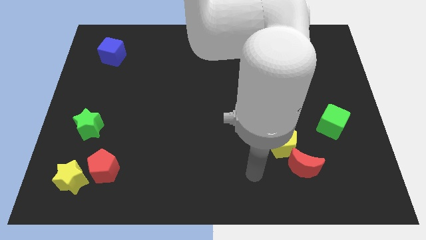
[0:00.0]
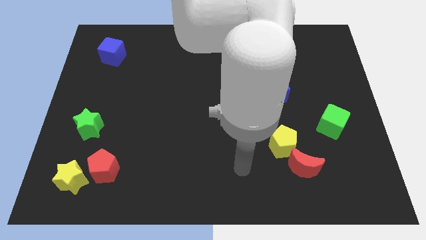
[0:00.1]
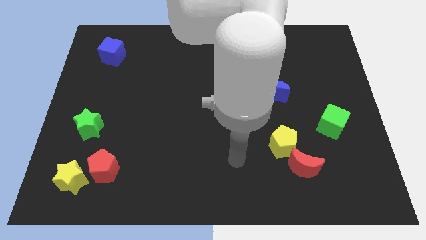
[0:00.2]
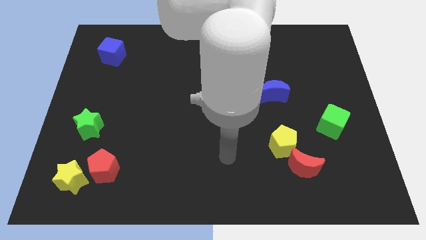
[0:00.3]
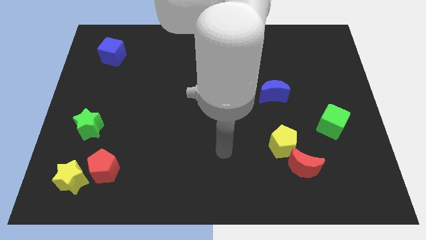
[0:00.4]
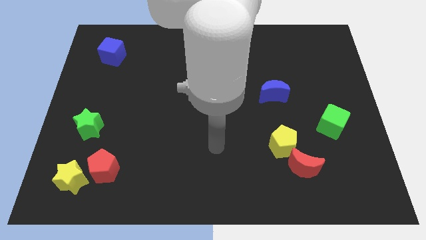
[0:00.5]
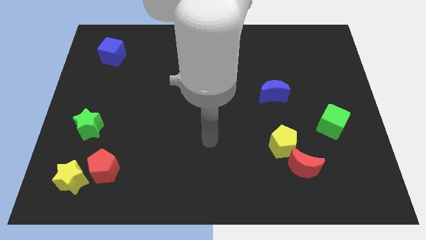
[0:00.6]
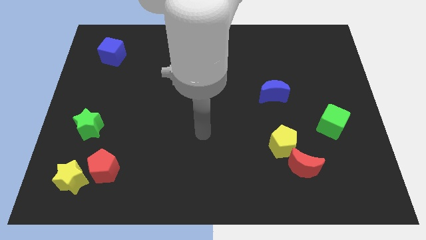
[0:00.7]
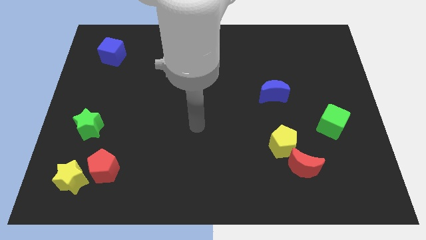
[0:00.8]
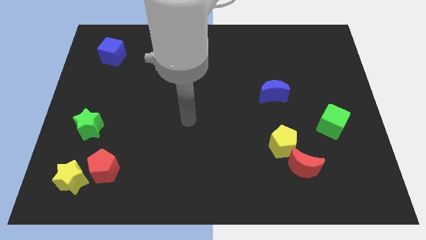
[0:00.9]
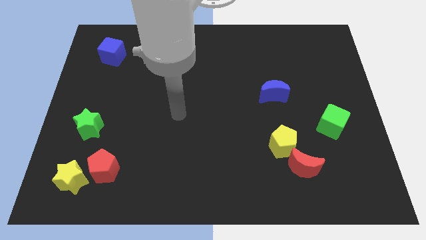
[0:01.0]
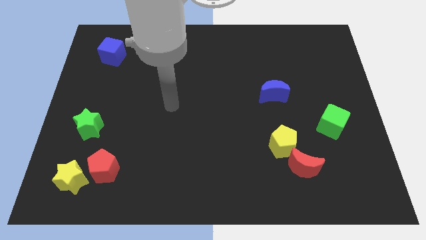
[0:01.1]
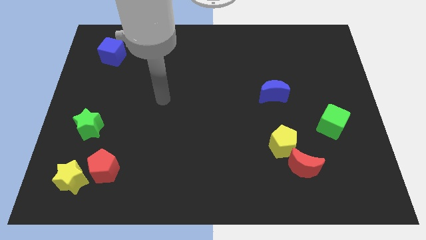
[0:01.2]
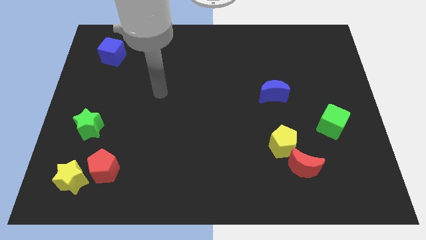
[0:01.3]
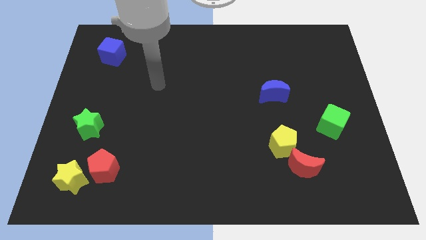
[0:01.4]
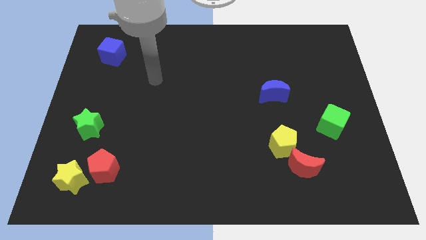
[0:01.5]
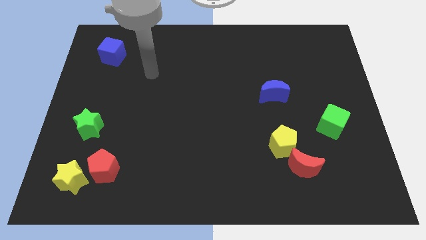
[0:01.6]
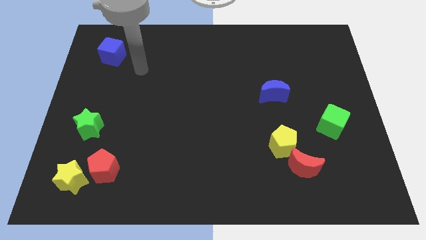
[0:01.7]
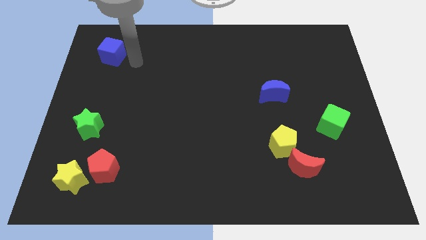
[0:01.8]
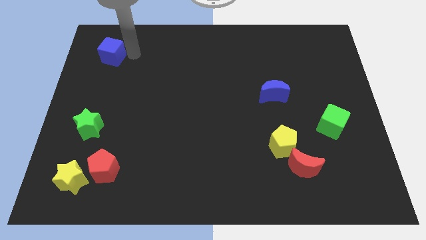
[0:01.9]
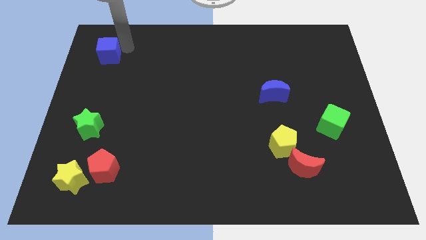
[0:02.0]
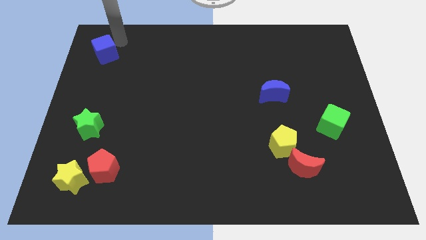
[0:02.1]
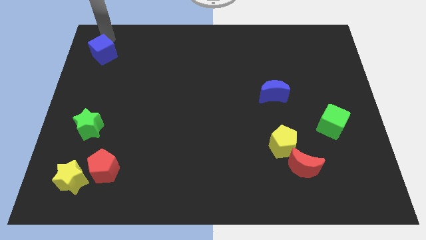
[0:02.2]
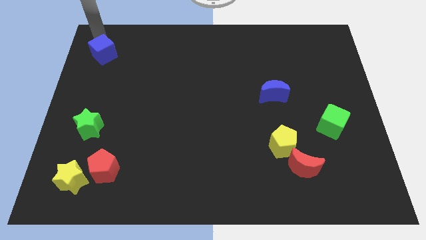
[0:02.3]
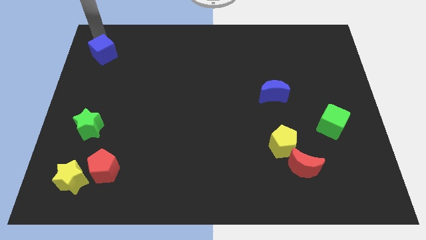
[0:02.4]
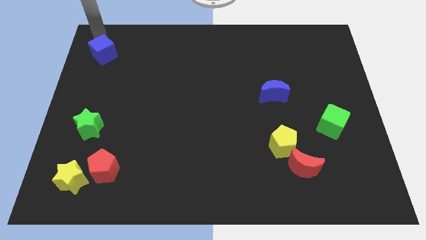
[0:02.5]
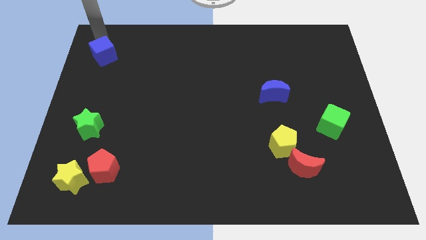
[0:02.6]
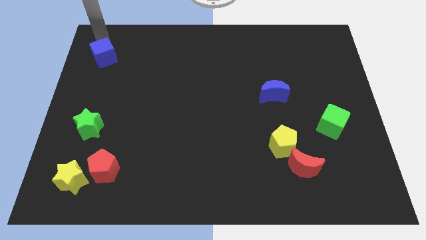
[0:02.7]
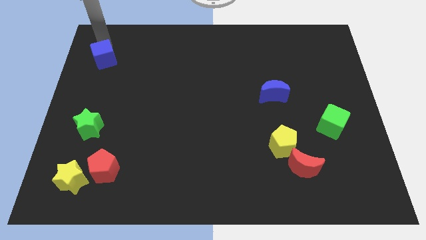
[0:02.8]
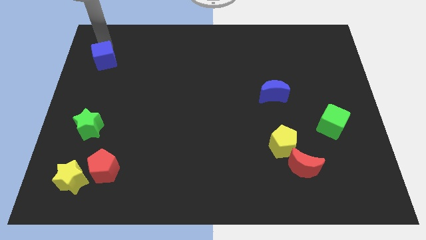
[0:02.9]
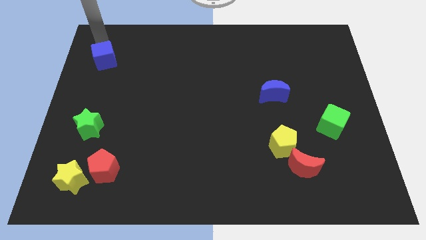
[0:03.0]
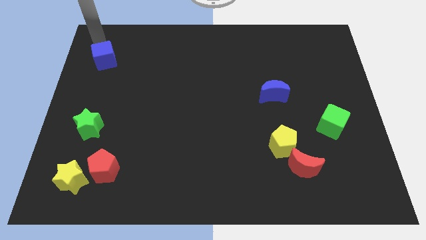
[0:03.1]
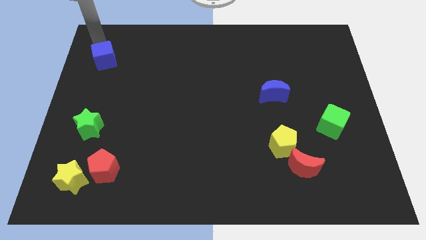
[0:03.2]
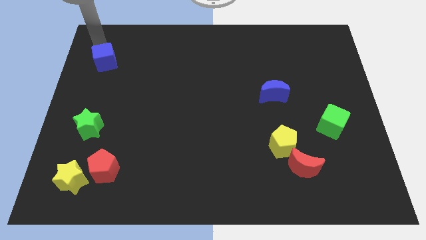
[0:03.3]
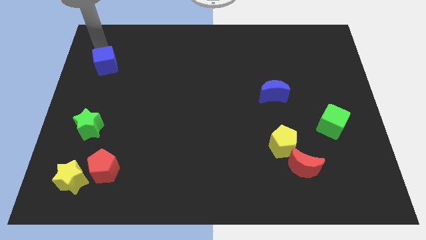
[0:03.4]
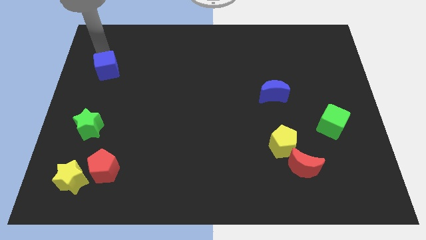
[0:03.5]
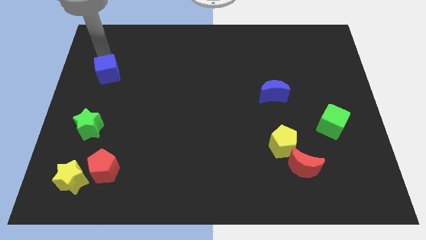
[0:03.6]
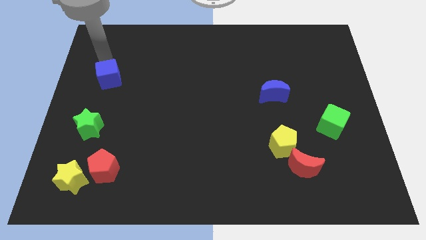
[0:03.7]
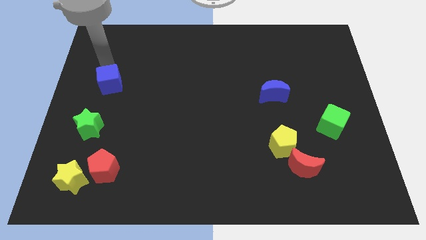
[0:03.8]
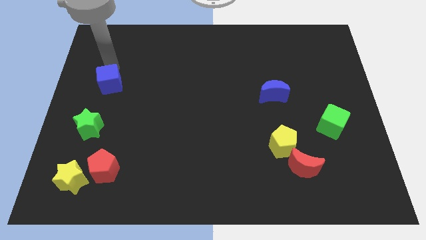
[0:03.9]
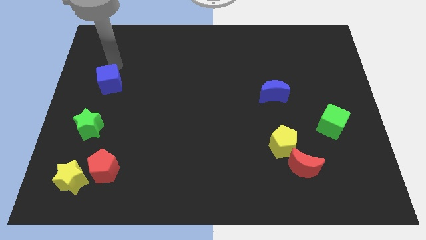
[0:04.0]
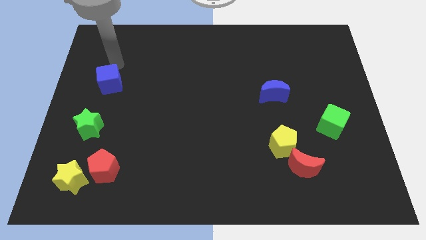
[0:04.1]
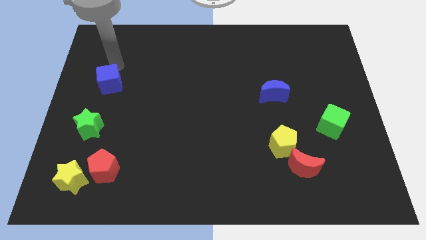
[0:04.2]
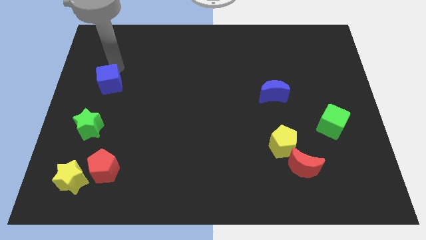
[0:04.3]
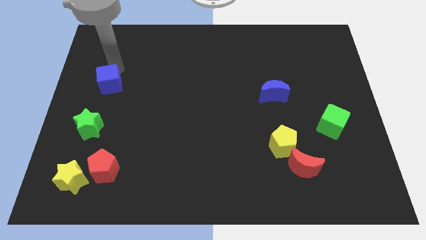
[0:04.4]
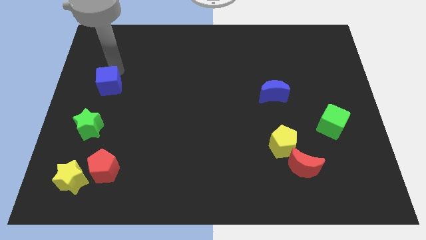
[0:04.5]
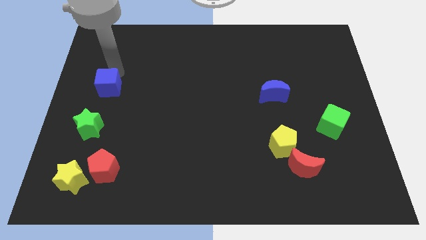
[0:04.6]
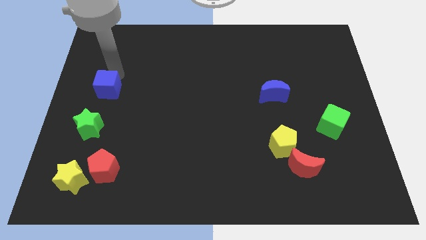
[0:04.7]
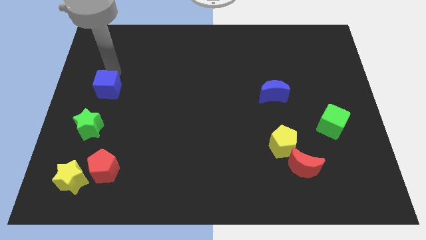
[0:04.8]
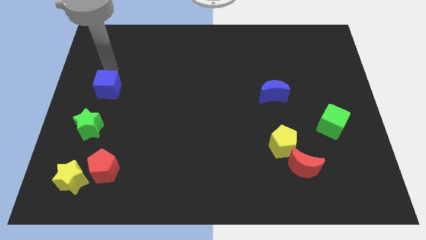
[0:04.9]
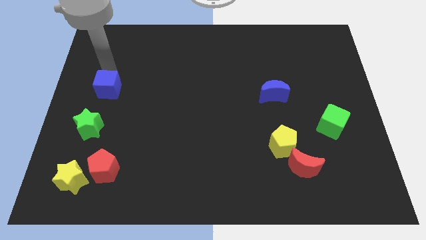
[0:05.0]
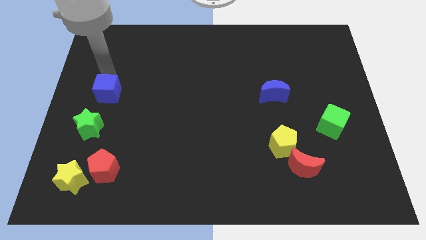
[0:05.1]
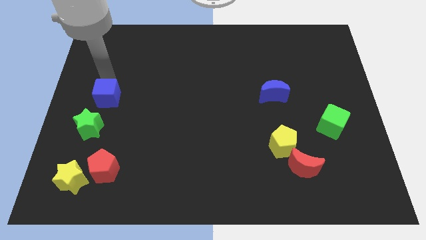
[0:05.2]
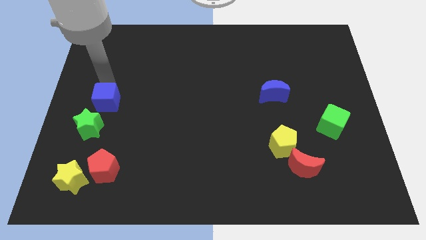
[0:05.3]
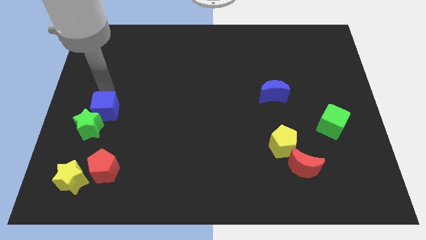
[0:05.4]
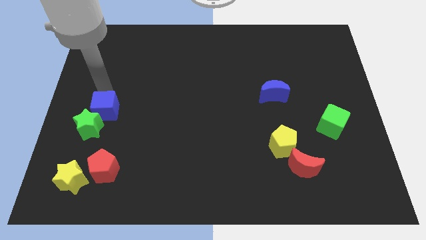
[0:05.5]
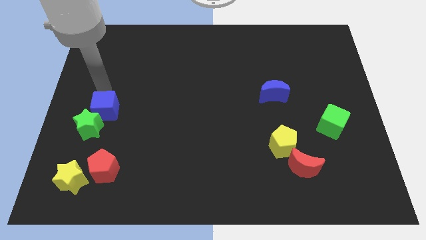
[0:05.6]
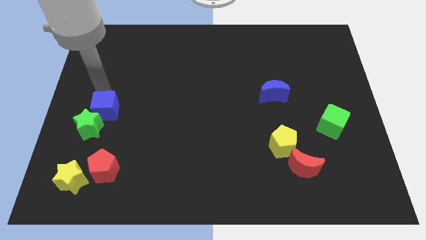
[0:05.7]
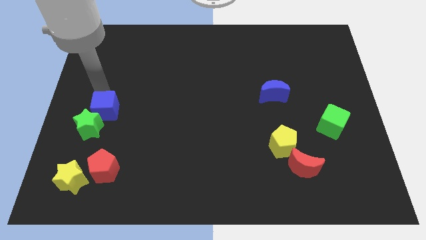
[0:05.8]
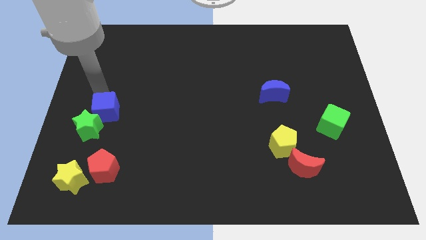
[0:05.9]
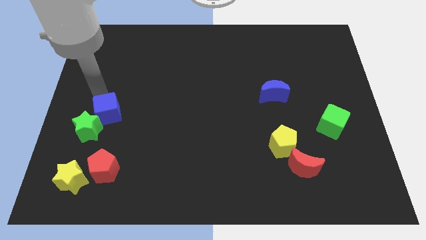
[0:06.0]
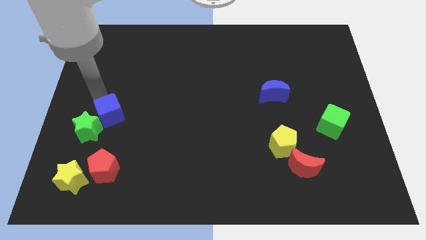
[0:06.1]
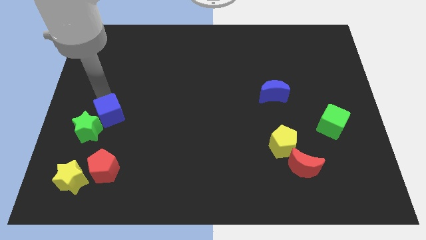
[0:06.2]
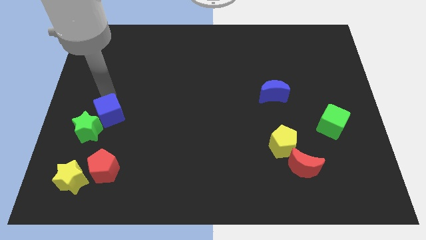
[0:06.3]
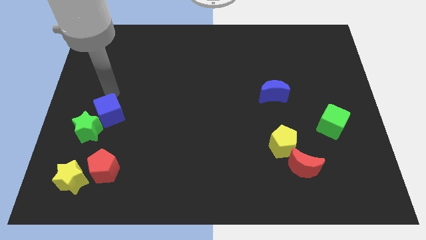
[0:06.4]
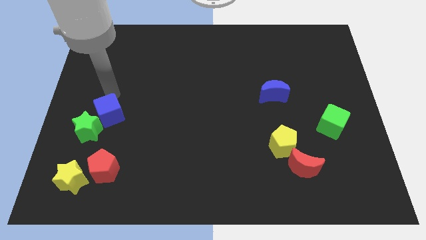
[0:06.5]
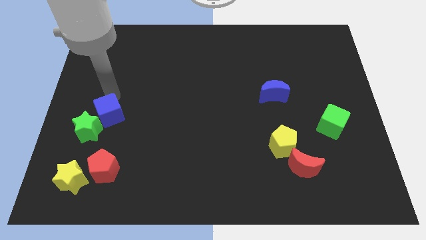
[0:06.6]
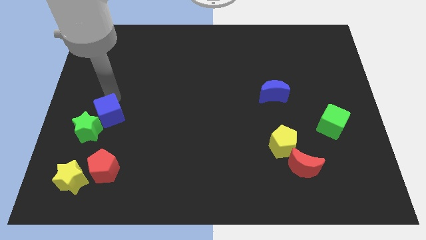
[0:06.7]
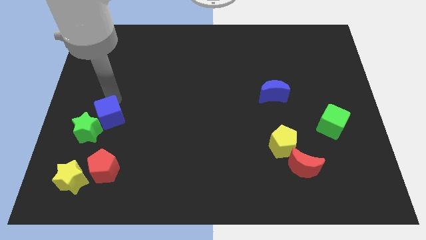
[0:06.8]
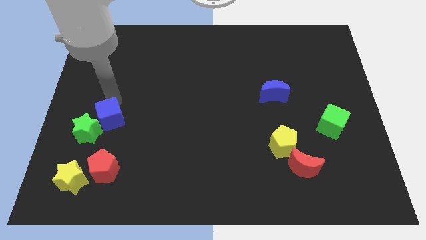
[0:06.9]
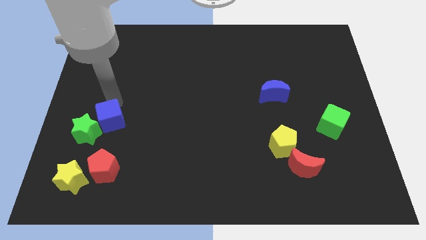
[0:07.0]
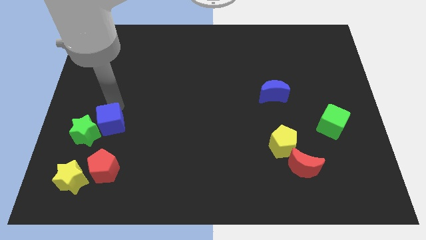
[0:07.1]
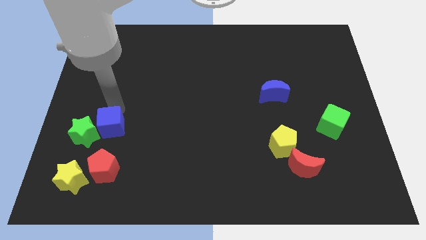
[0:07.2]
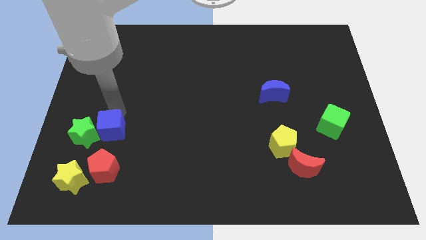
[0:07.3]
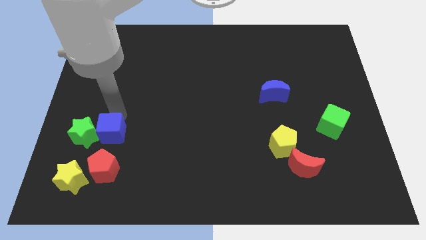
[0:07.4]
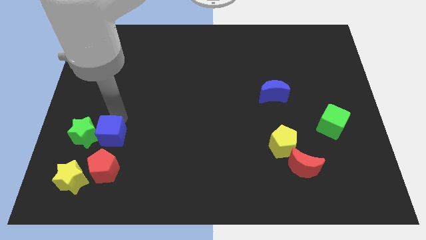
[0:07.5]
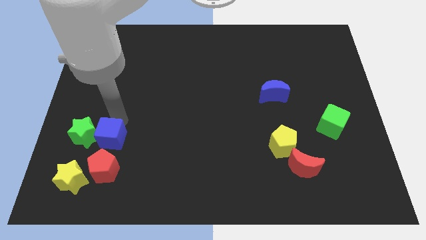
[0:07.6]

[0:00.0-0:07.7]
move the blue cube to the top right side of the yellow star
